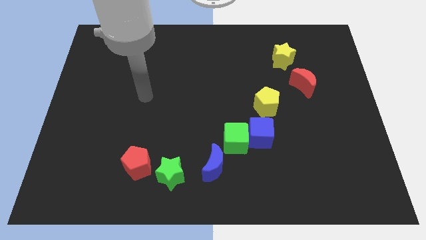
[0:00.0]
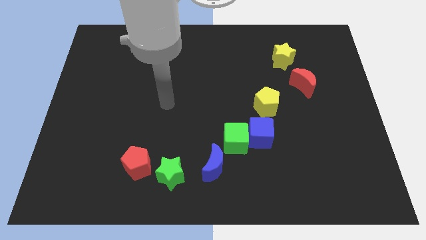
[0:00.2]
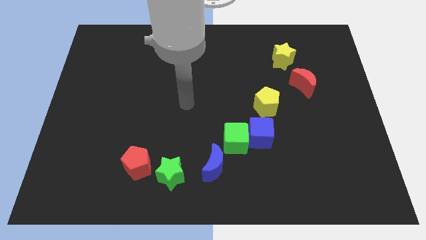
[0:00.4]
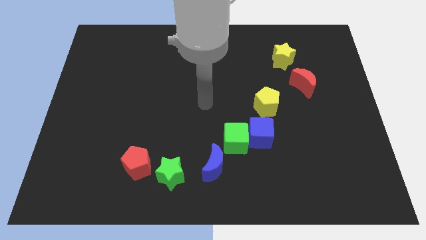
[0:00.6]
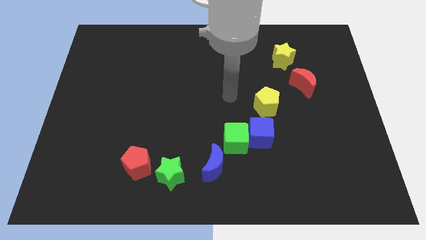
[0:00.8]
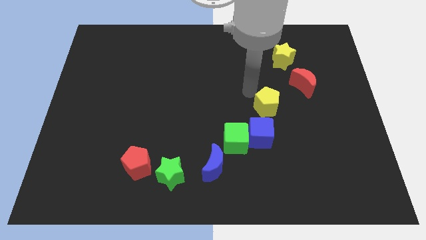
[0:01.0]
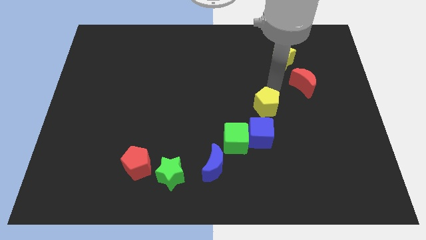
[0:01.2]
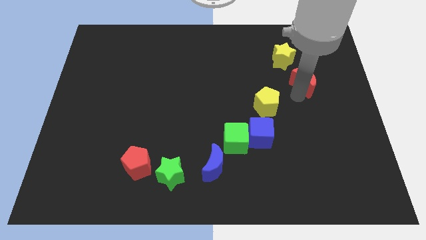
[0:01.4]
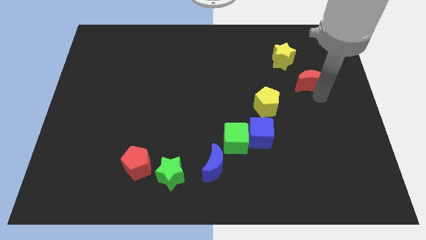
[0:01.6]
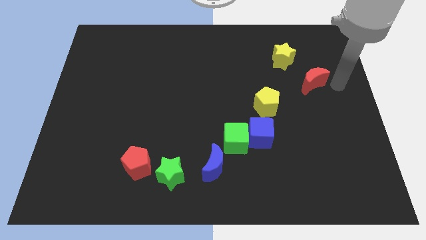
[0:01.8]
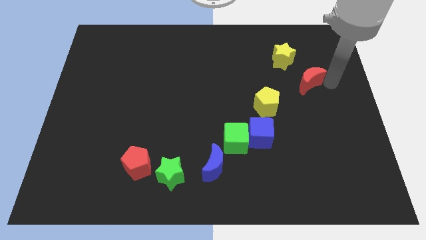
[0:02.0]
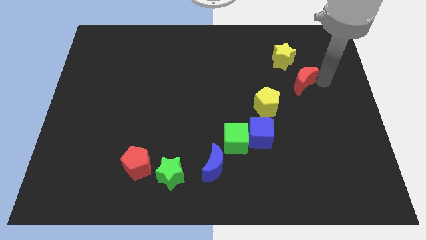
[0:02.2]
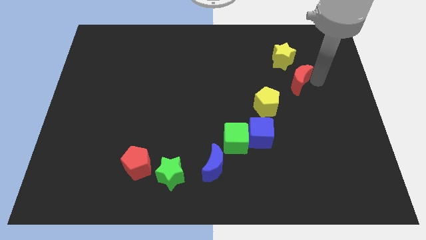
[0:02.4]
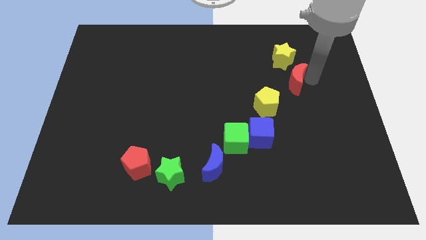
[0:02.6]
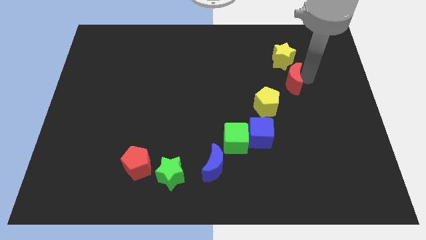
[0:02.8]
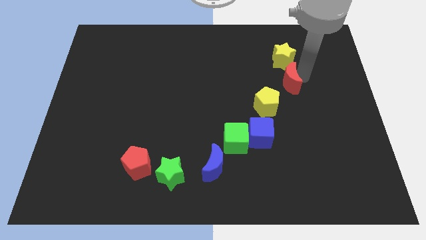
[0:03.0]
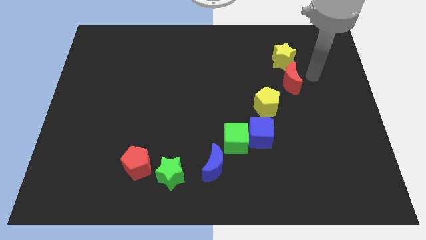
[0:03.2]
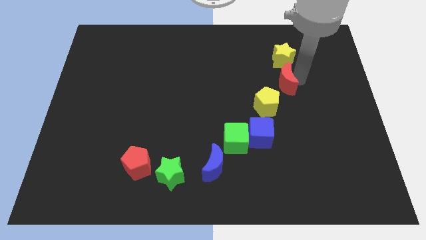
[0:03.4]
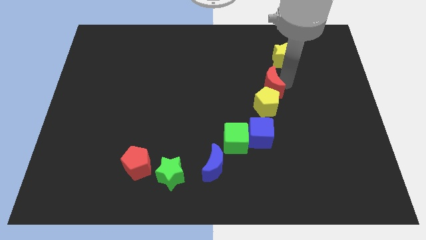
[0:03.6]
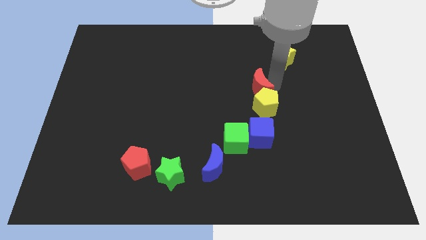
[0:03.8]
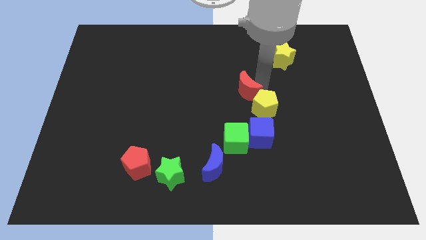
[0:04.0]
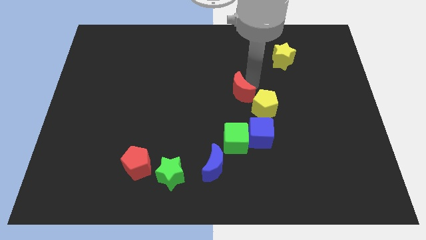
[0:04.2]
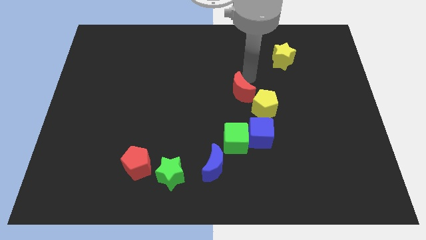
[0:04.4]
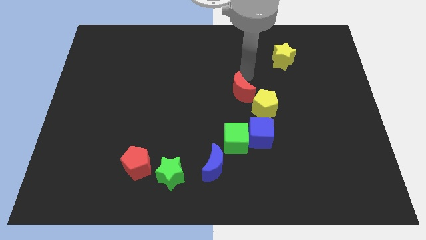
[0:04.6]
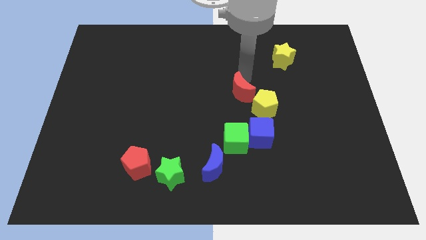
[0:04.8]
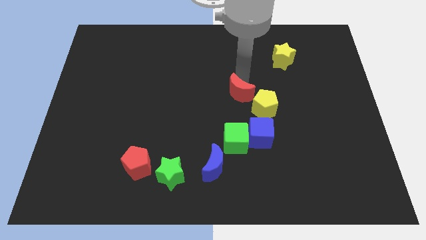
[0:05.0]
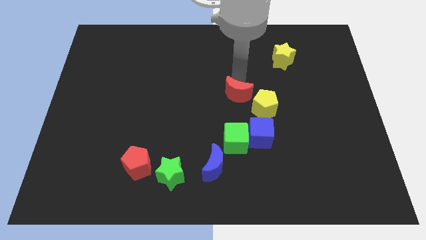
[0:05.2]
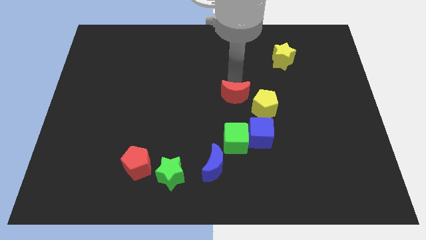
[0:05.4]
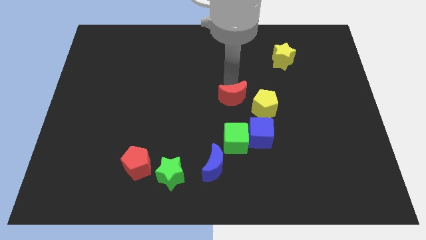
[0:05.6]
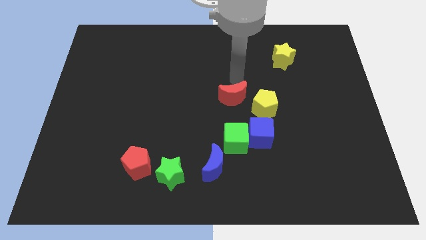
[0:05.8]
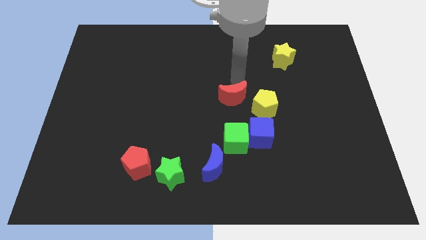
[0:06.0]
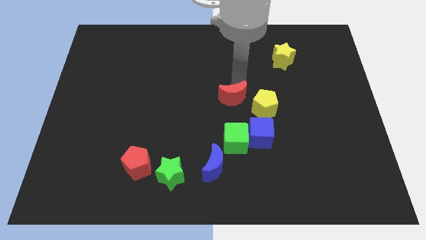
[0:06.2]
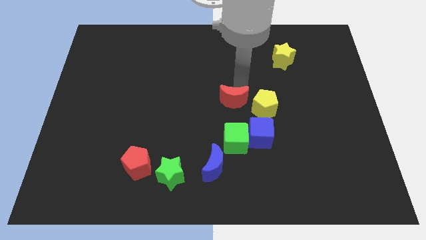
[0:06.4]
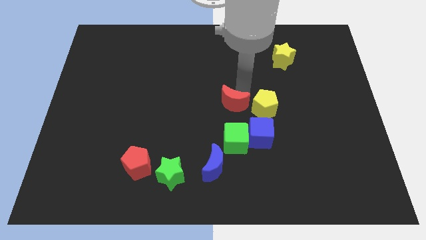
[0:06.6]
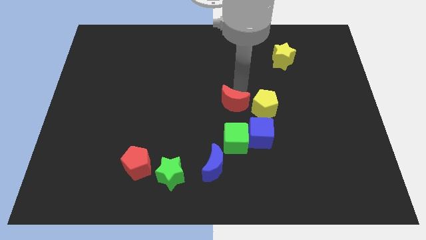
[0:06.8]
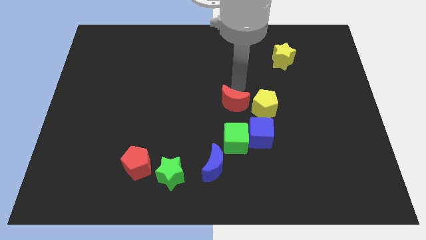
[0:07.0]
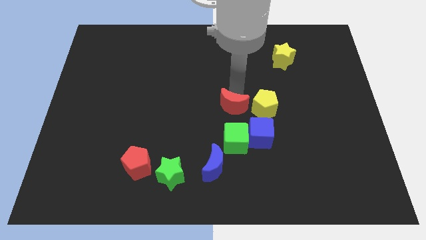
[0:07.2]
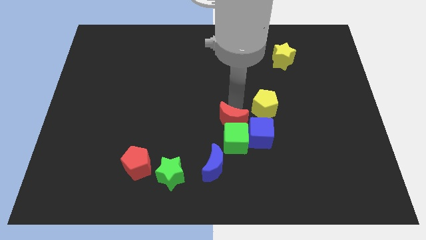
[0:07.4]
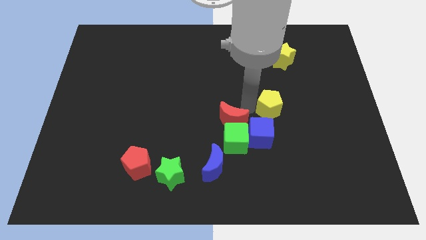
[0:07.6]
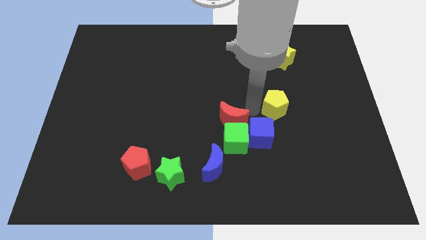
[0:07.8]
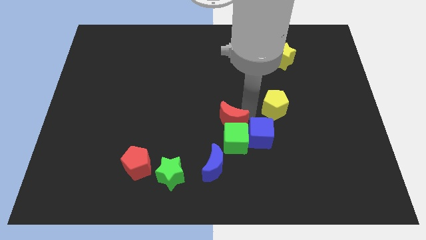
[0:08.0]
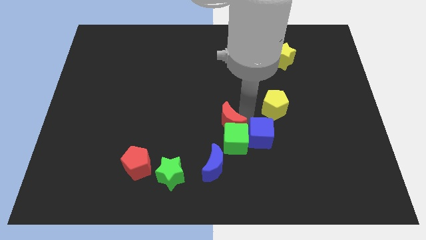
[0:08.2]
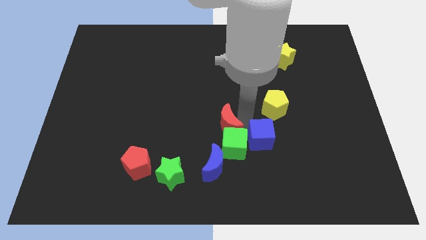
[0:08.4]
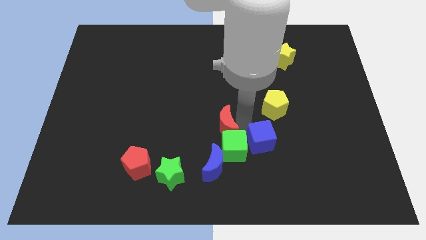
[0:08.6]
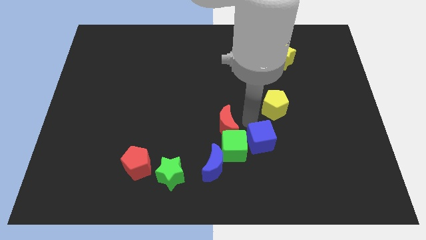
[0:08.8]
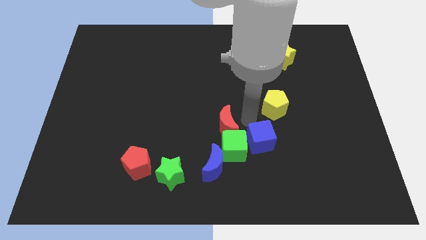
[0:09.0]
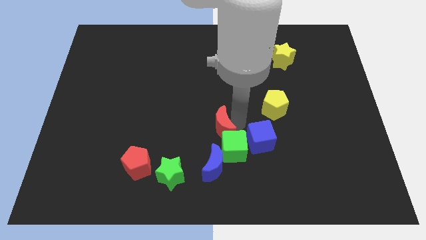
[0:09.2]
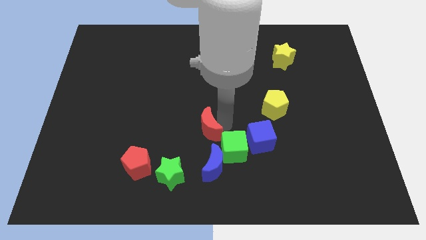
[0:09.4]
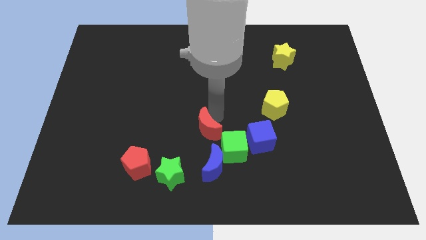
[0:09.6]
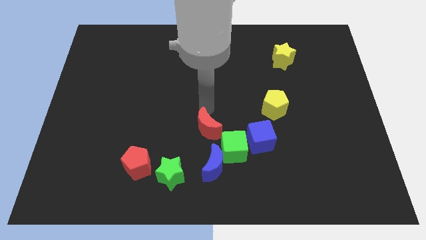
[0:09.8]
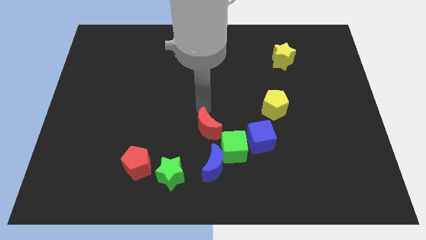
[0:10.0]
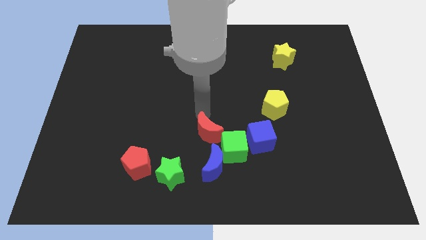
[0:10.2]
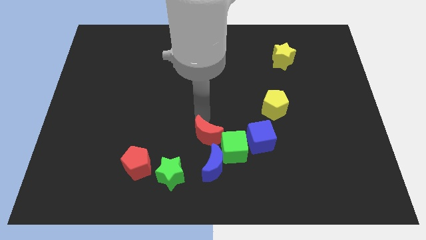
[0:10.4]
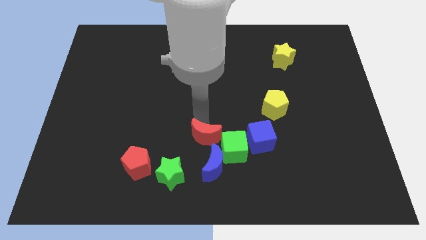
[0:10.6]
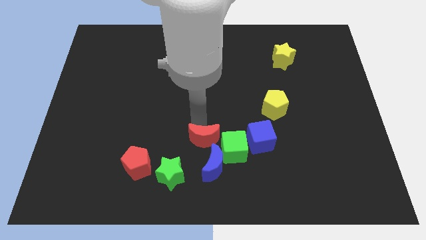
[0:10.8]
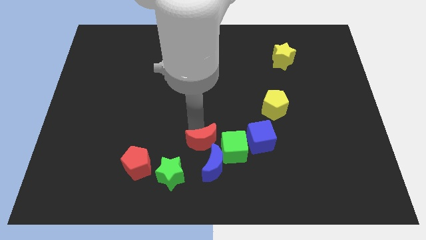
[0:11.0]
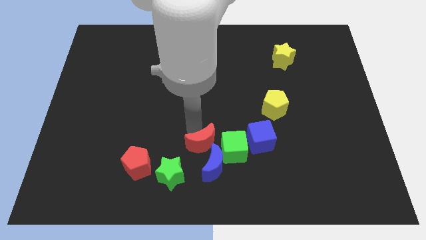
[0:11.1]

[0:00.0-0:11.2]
push the red moon close to the blue moon

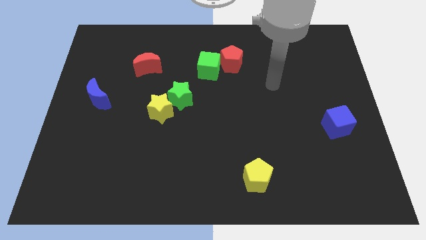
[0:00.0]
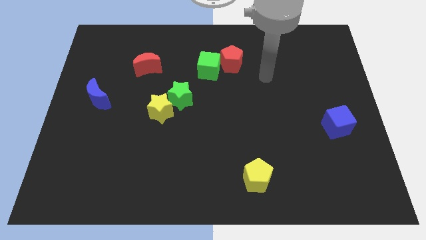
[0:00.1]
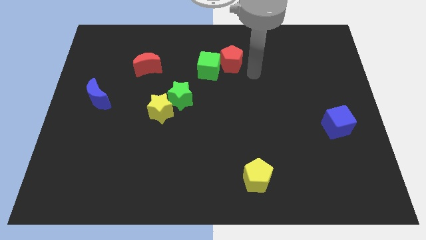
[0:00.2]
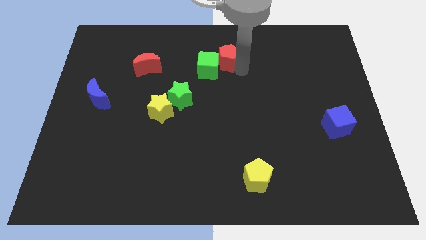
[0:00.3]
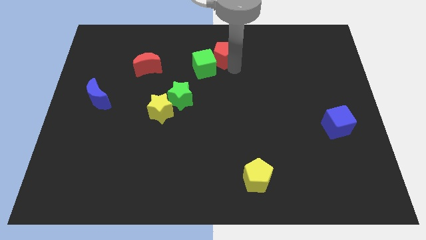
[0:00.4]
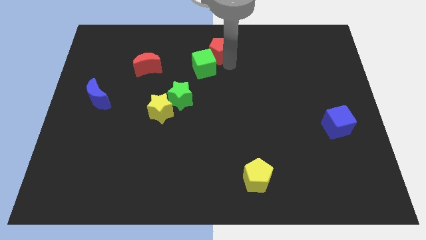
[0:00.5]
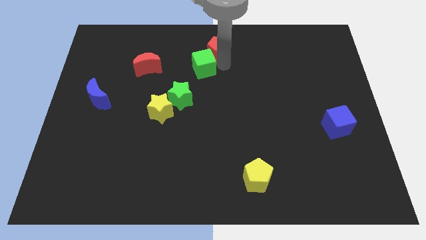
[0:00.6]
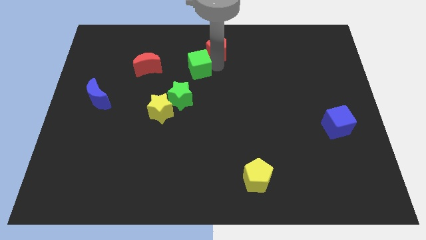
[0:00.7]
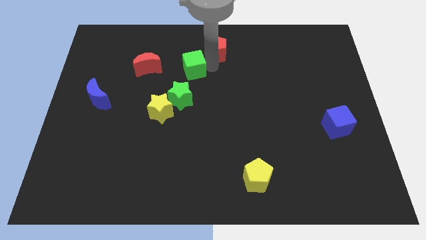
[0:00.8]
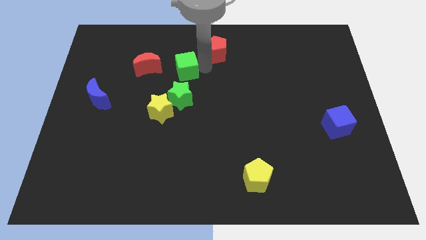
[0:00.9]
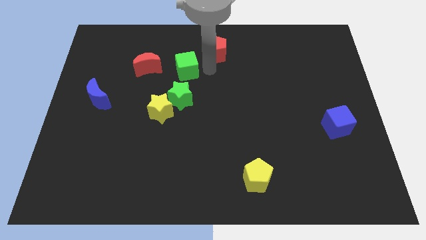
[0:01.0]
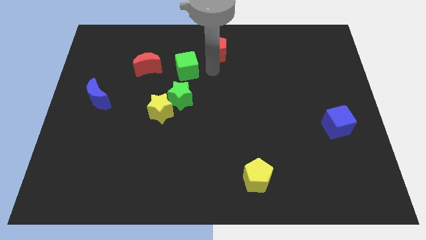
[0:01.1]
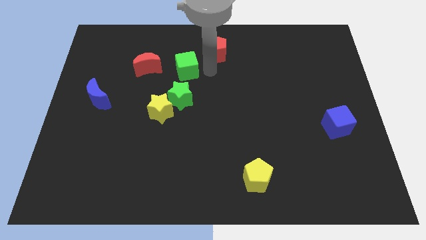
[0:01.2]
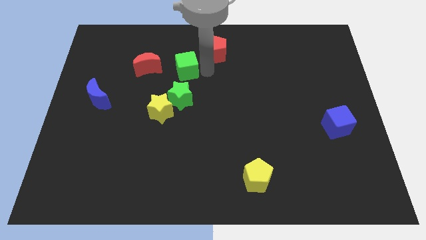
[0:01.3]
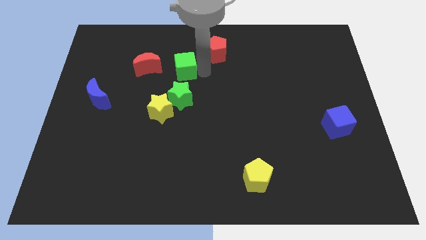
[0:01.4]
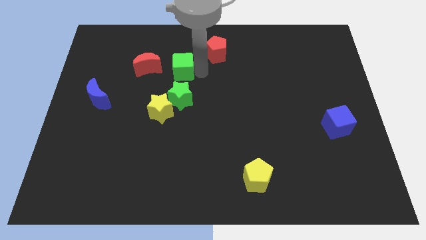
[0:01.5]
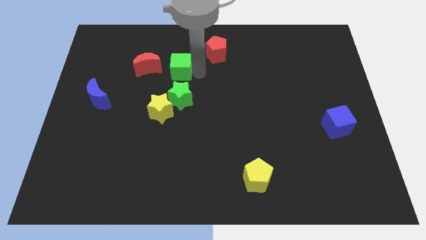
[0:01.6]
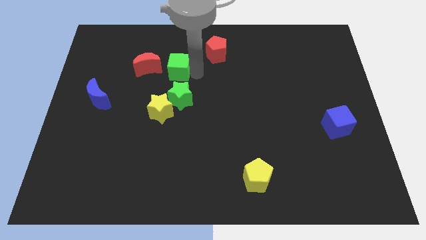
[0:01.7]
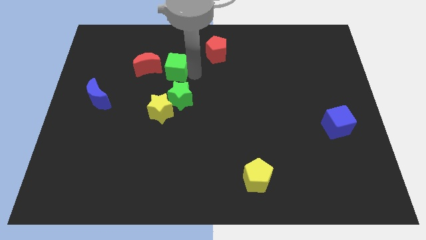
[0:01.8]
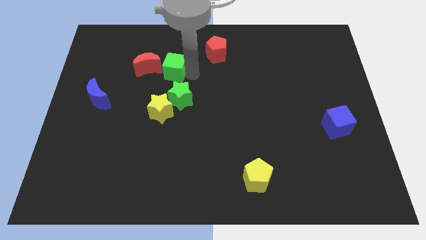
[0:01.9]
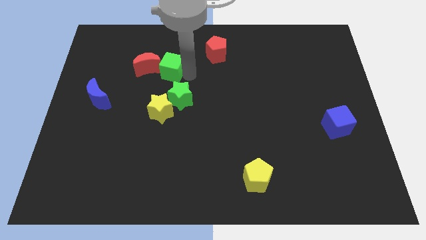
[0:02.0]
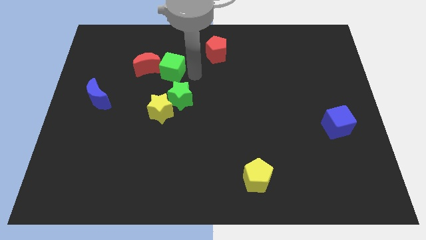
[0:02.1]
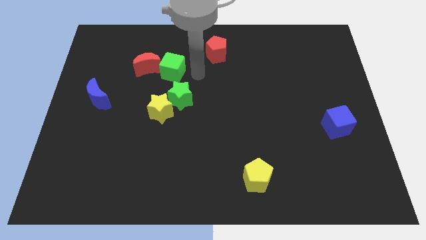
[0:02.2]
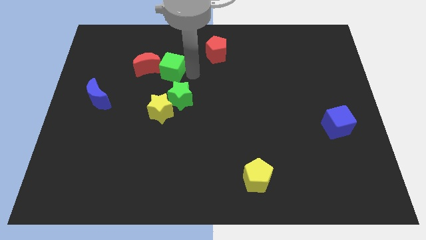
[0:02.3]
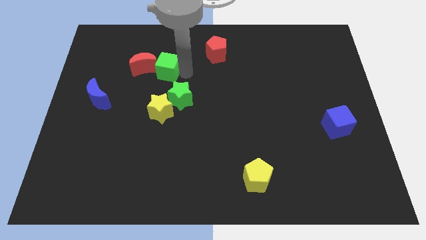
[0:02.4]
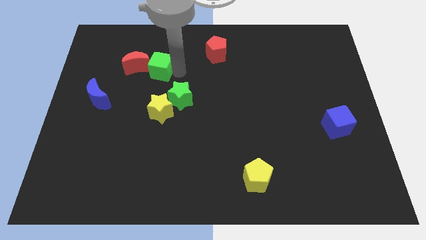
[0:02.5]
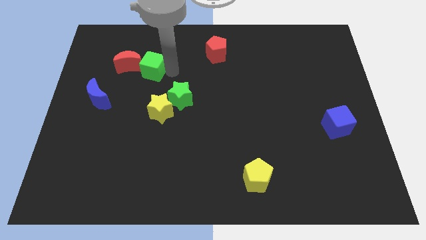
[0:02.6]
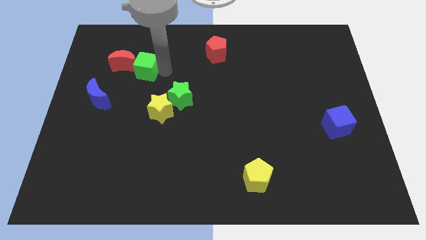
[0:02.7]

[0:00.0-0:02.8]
put the green cube close to the red moon
